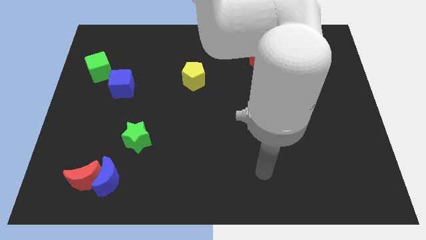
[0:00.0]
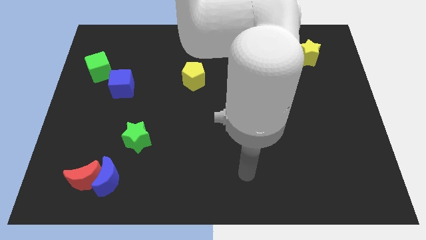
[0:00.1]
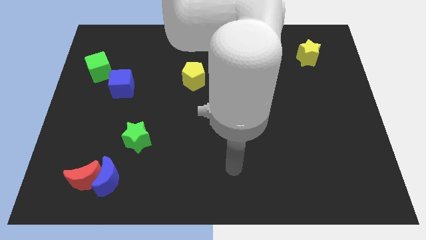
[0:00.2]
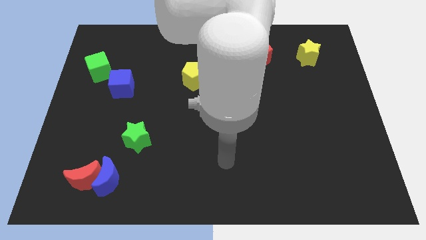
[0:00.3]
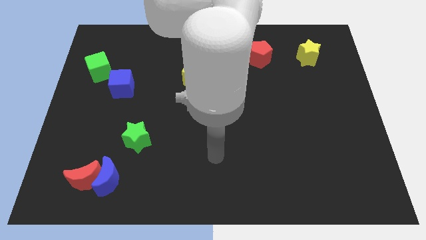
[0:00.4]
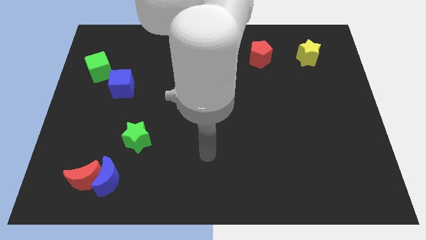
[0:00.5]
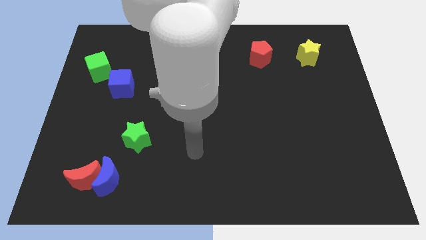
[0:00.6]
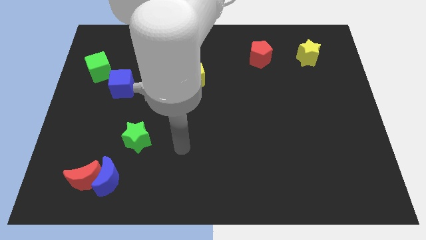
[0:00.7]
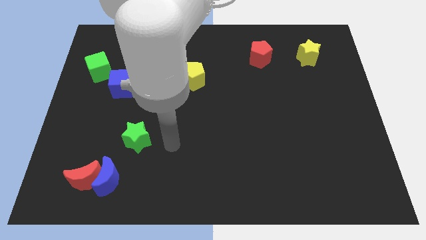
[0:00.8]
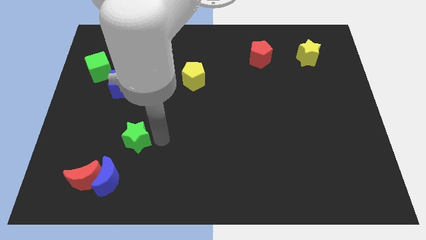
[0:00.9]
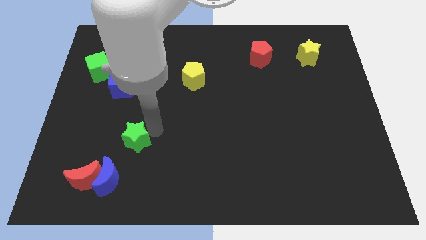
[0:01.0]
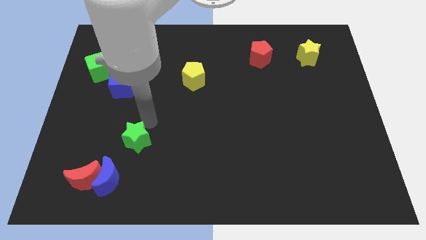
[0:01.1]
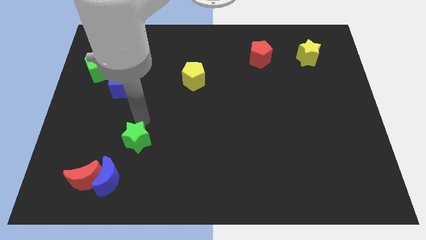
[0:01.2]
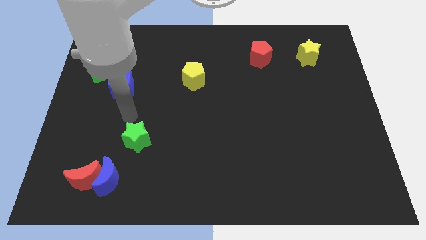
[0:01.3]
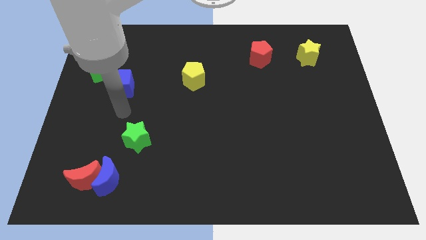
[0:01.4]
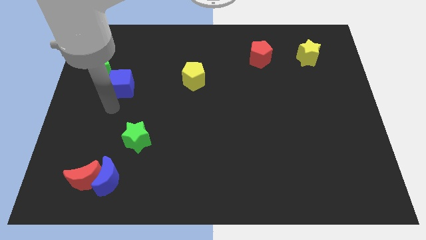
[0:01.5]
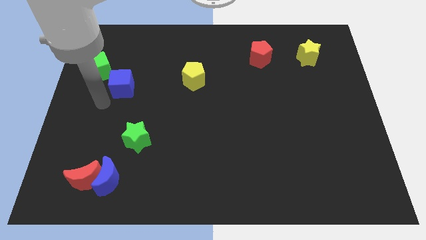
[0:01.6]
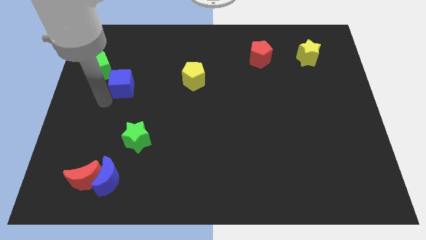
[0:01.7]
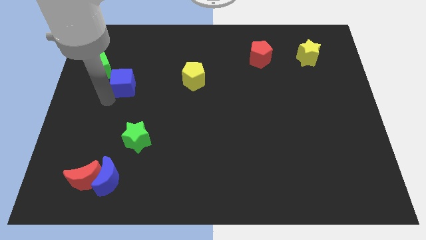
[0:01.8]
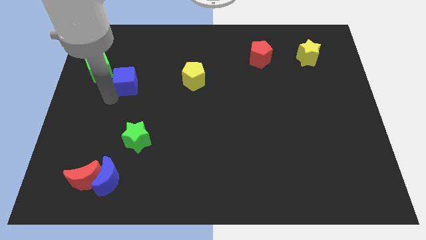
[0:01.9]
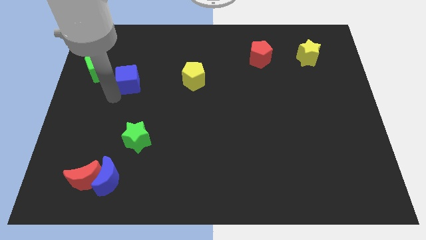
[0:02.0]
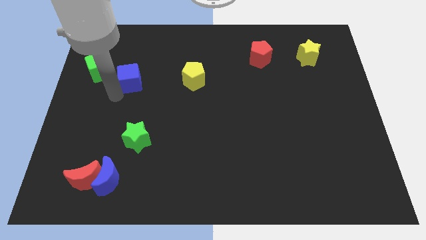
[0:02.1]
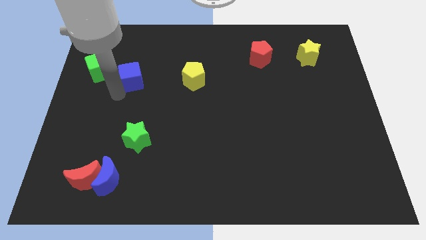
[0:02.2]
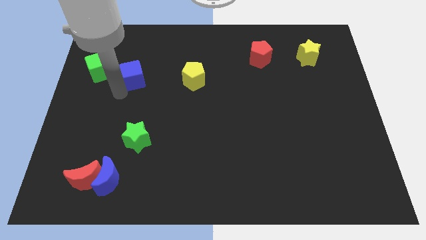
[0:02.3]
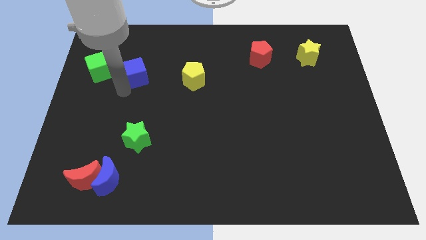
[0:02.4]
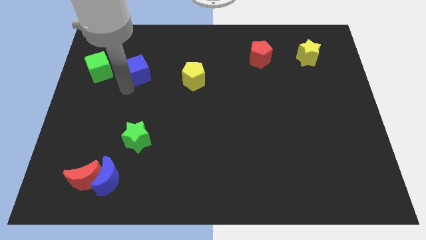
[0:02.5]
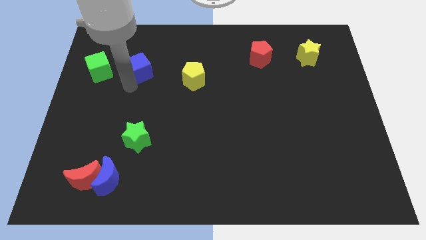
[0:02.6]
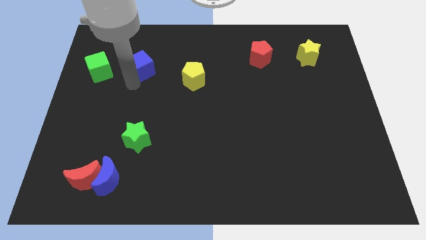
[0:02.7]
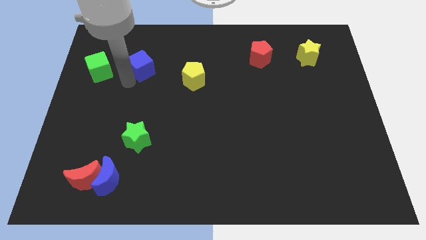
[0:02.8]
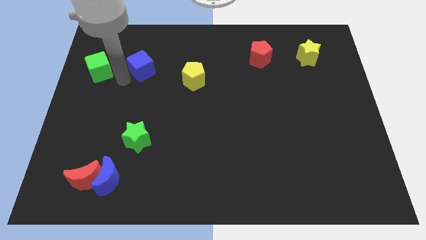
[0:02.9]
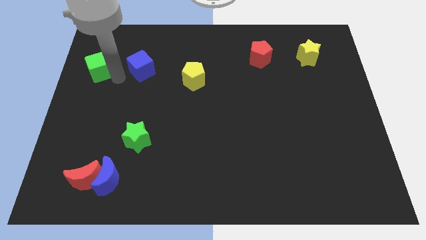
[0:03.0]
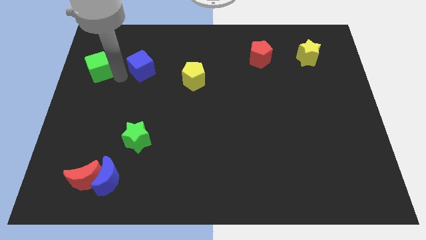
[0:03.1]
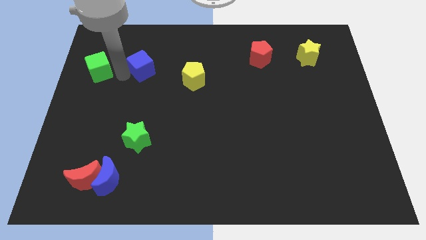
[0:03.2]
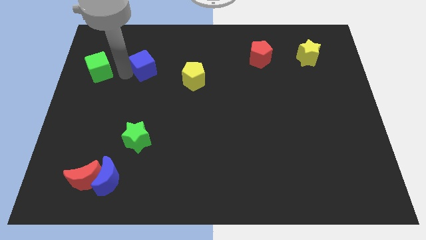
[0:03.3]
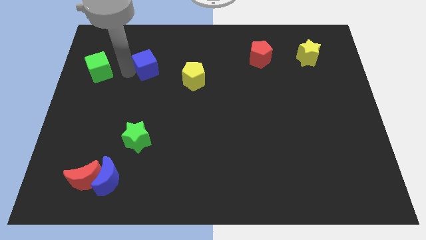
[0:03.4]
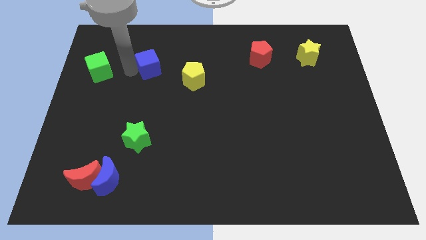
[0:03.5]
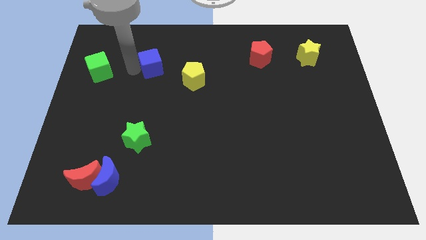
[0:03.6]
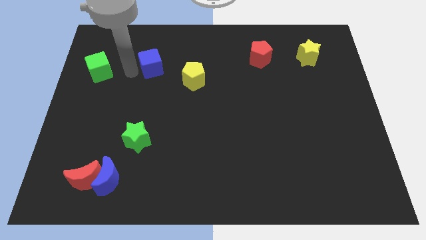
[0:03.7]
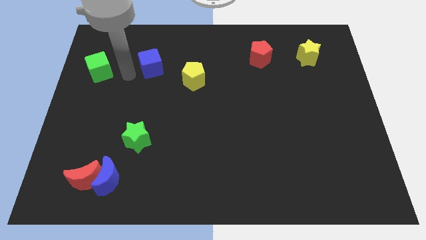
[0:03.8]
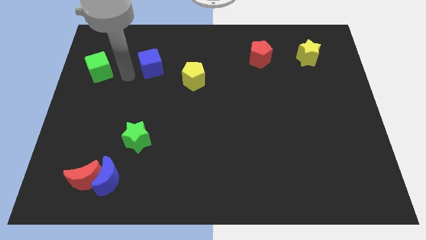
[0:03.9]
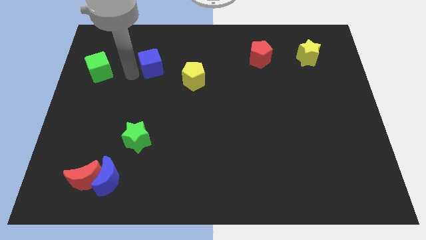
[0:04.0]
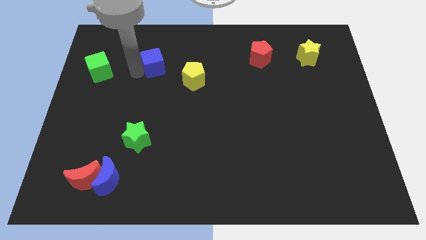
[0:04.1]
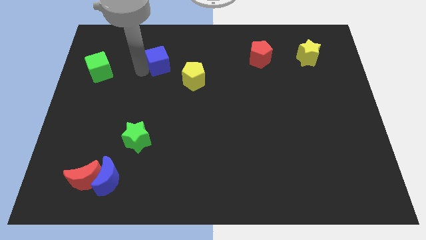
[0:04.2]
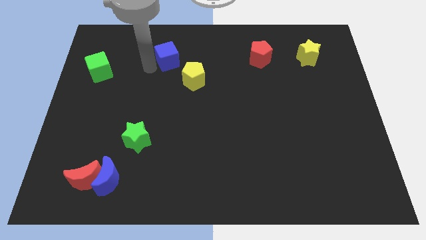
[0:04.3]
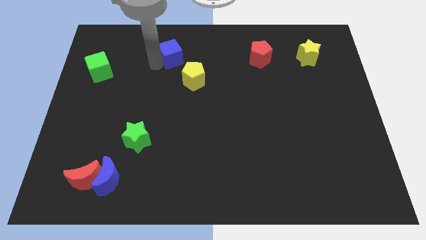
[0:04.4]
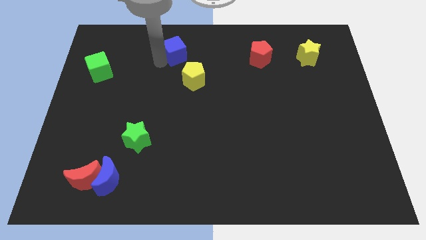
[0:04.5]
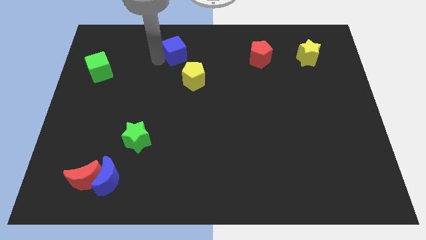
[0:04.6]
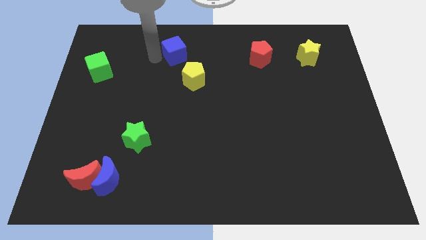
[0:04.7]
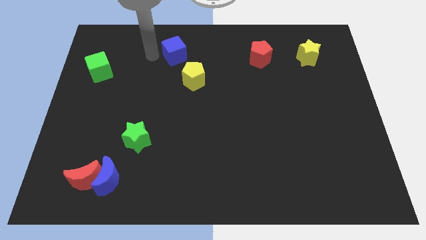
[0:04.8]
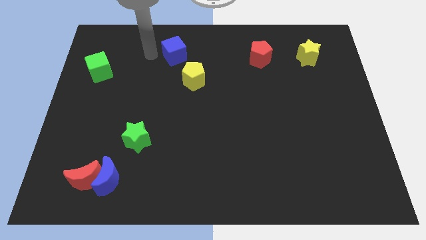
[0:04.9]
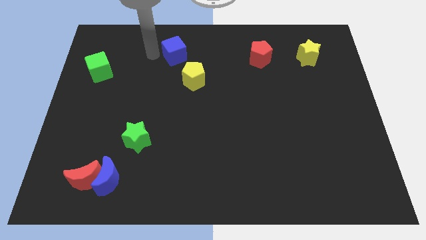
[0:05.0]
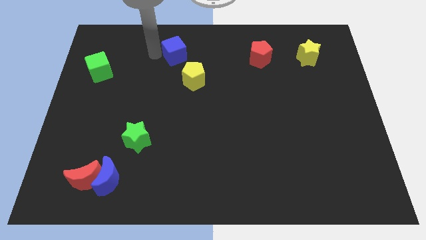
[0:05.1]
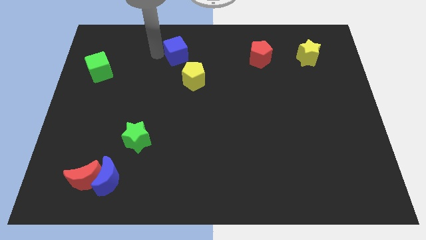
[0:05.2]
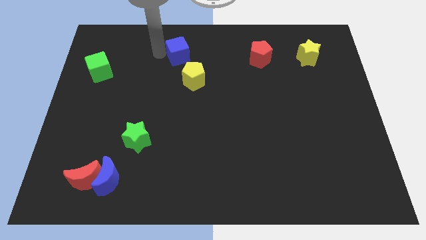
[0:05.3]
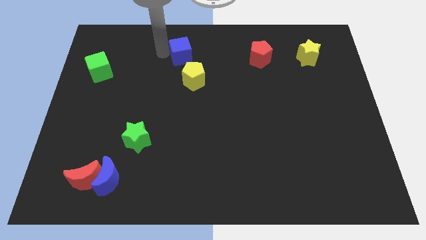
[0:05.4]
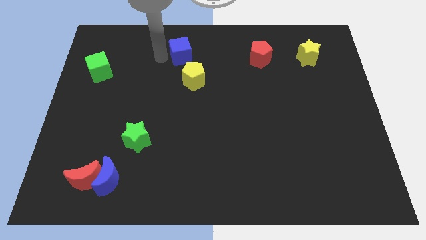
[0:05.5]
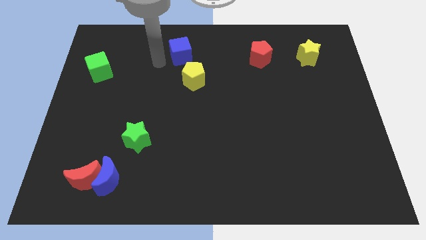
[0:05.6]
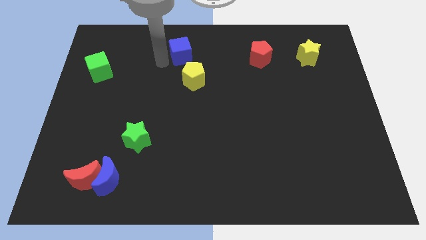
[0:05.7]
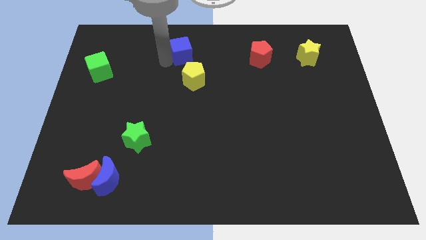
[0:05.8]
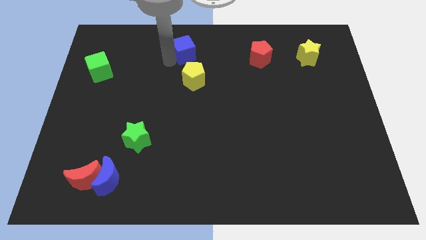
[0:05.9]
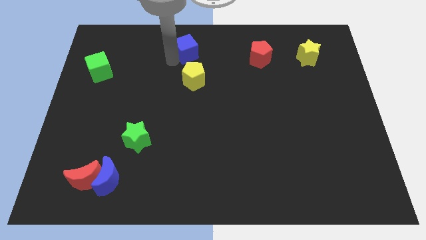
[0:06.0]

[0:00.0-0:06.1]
put the blue cube to the top side
